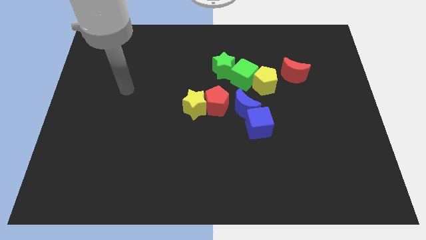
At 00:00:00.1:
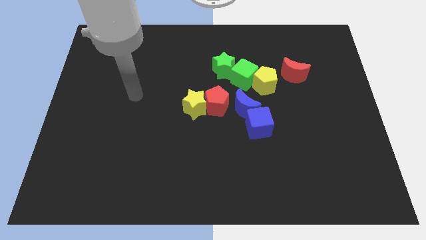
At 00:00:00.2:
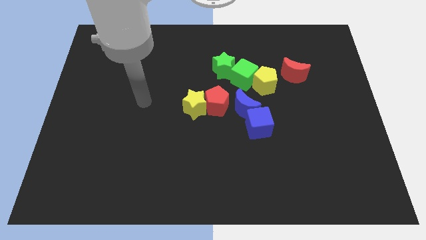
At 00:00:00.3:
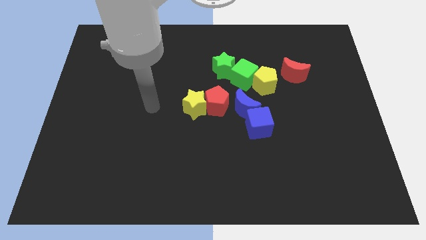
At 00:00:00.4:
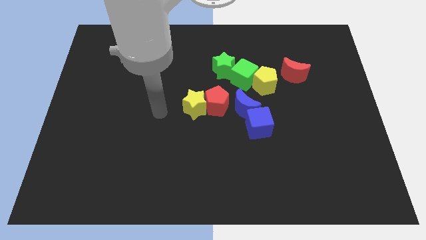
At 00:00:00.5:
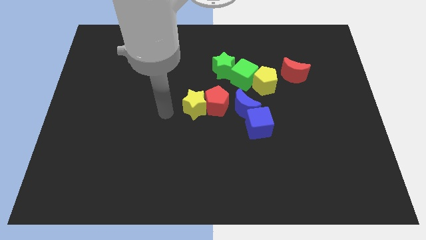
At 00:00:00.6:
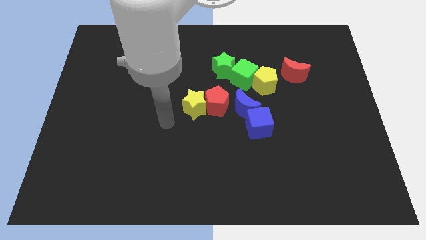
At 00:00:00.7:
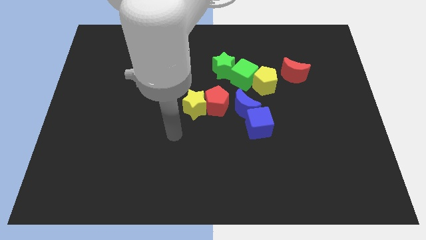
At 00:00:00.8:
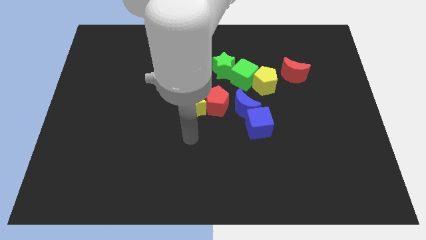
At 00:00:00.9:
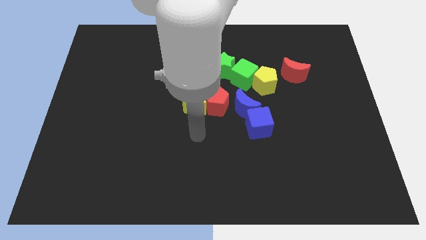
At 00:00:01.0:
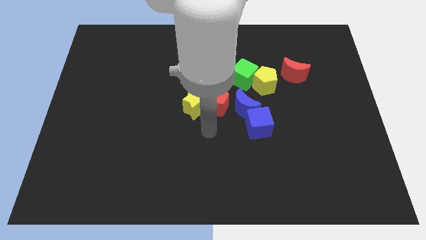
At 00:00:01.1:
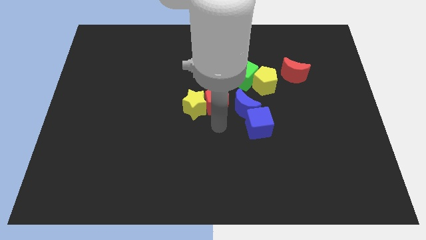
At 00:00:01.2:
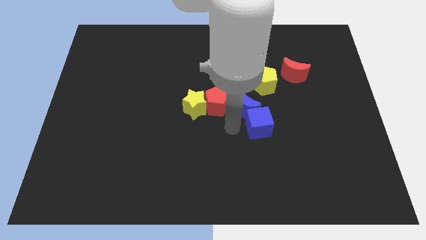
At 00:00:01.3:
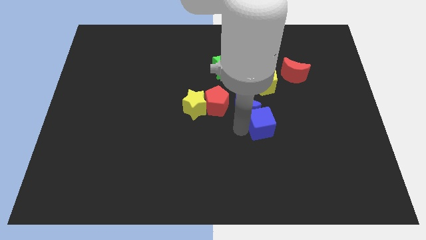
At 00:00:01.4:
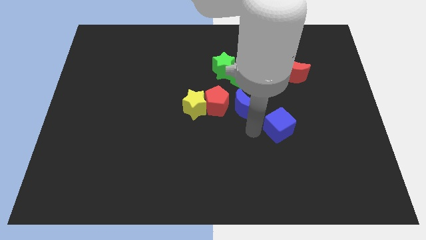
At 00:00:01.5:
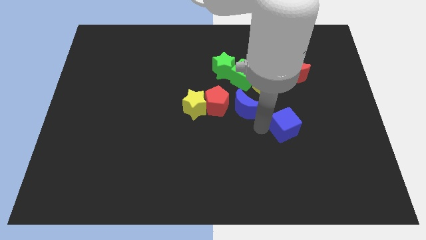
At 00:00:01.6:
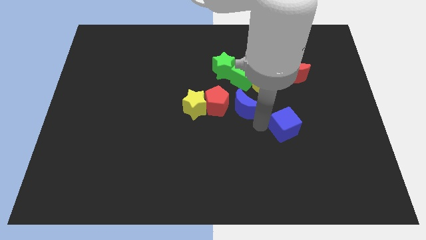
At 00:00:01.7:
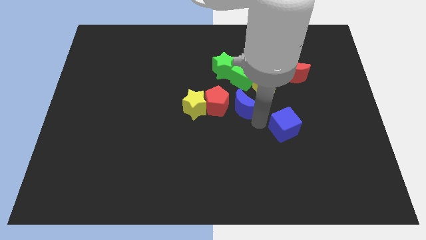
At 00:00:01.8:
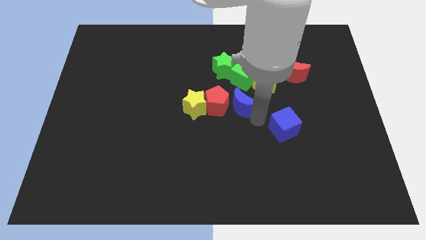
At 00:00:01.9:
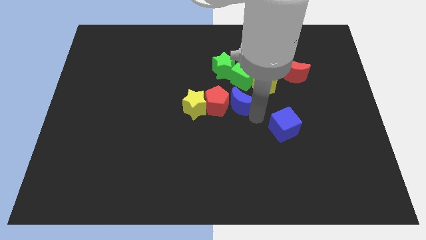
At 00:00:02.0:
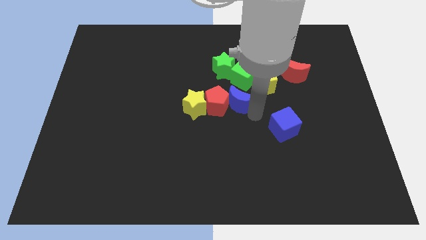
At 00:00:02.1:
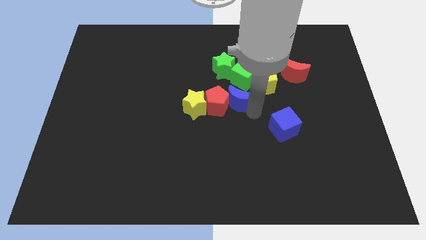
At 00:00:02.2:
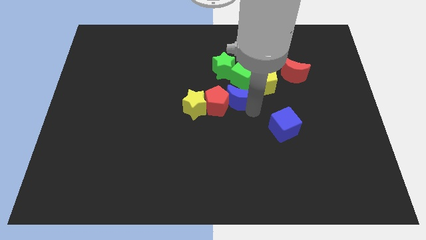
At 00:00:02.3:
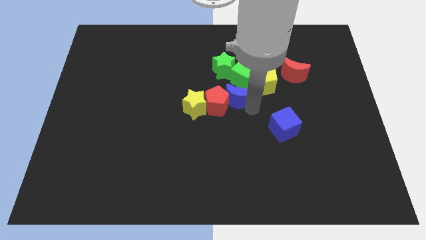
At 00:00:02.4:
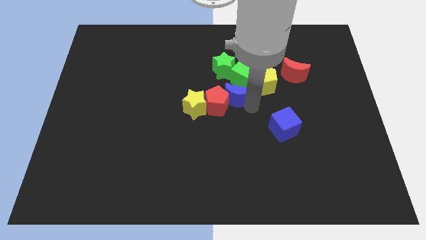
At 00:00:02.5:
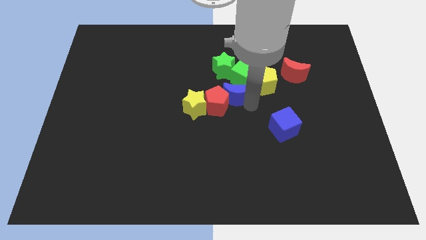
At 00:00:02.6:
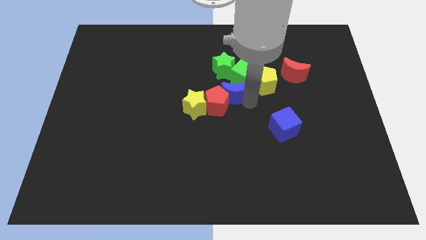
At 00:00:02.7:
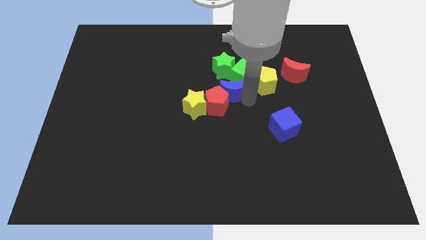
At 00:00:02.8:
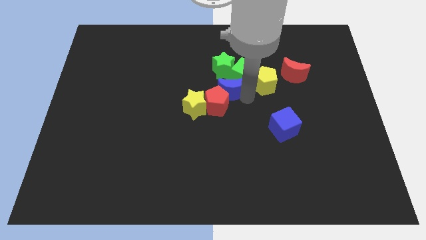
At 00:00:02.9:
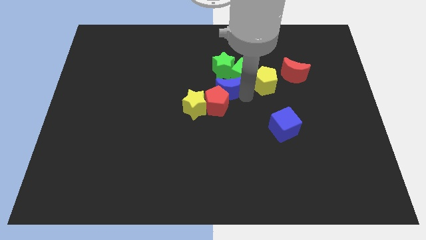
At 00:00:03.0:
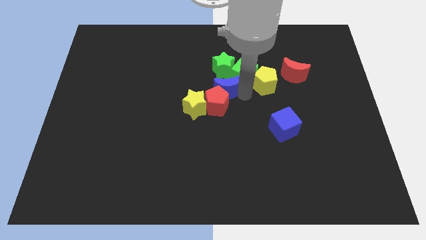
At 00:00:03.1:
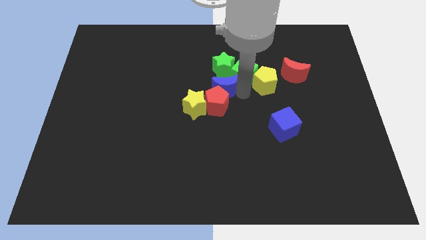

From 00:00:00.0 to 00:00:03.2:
slightly slide the blue moon up and then to the left

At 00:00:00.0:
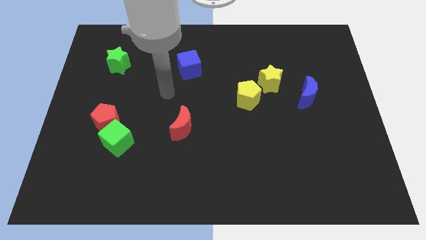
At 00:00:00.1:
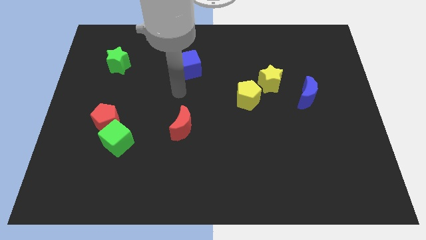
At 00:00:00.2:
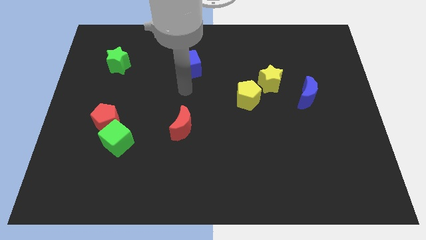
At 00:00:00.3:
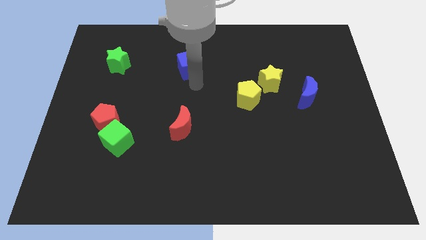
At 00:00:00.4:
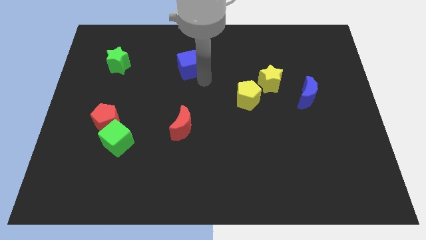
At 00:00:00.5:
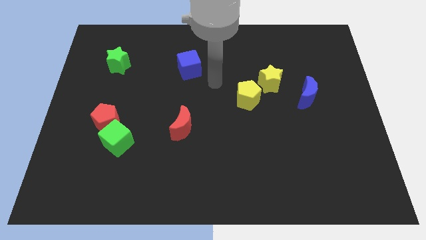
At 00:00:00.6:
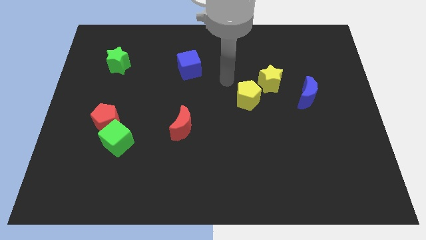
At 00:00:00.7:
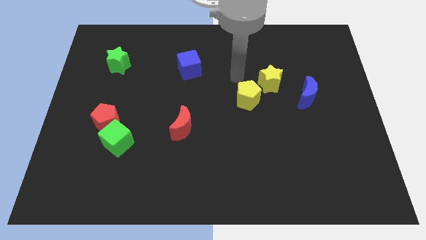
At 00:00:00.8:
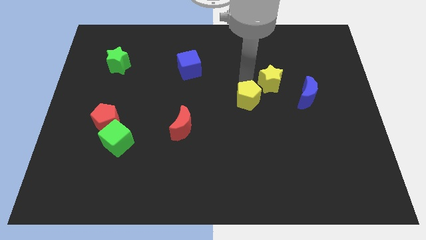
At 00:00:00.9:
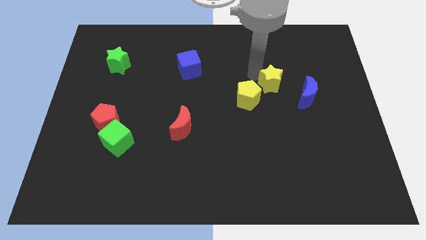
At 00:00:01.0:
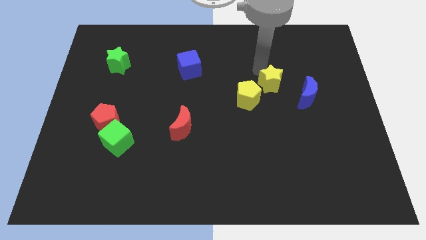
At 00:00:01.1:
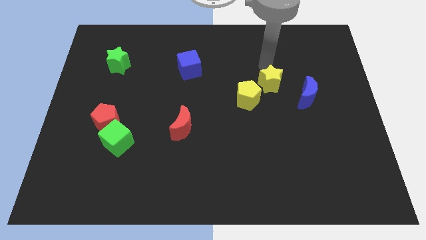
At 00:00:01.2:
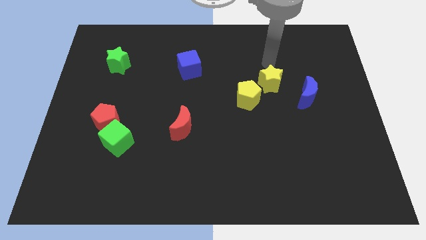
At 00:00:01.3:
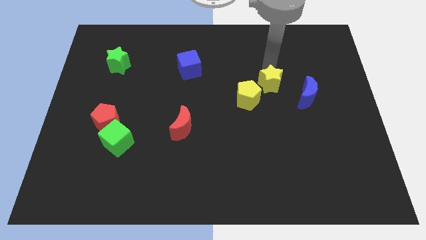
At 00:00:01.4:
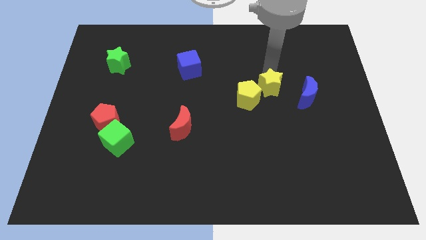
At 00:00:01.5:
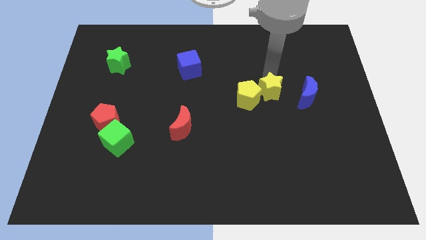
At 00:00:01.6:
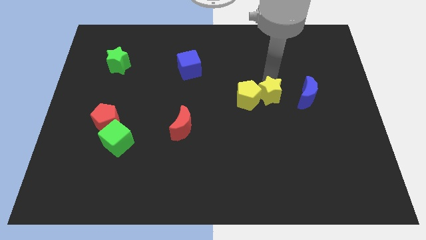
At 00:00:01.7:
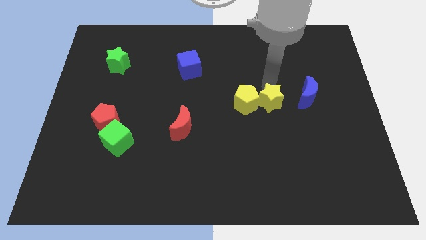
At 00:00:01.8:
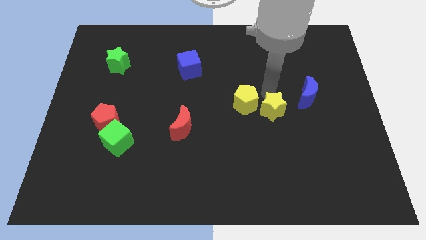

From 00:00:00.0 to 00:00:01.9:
slightly slide the yellow star down

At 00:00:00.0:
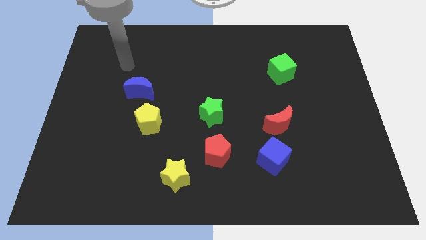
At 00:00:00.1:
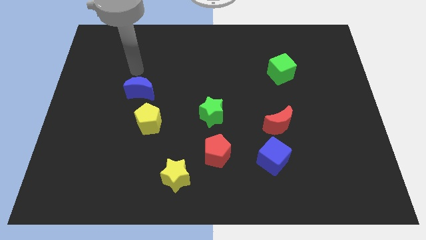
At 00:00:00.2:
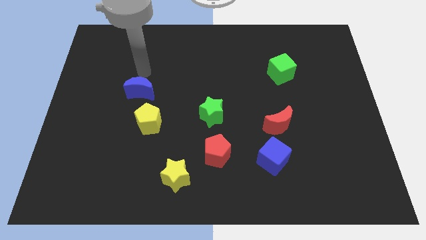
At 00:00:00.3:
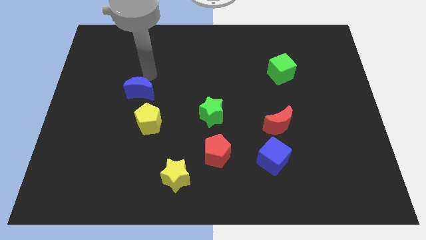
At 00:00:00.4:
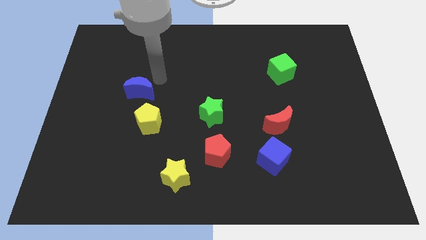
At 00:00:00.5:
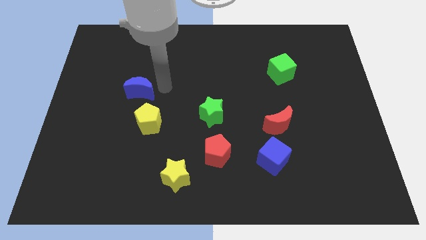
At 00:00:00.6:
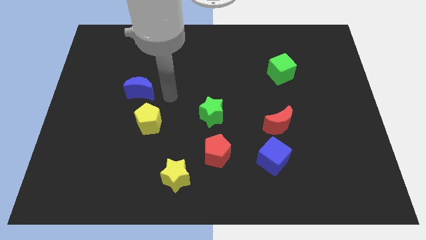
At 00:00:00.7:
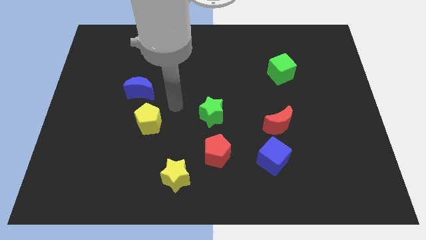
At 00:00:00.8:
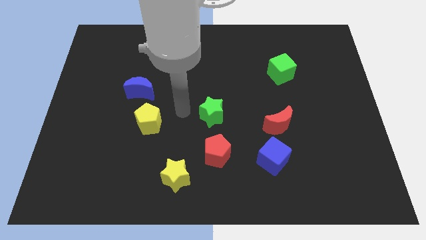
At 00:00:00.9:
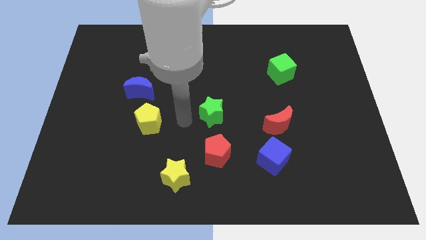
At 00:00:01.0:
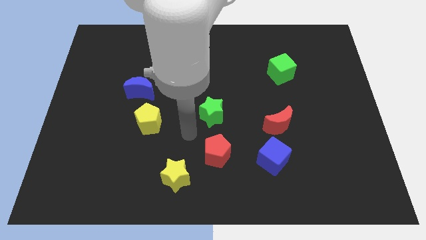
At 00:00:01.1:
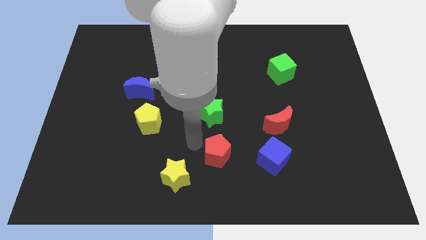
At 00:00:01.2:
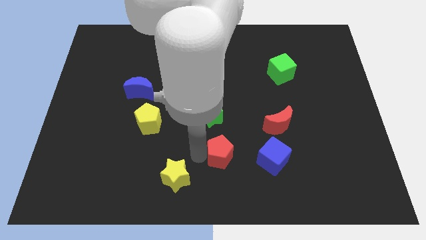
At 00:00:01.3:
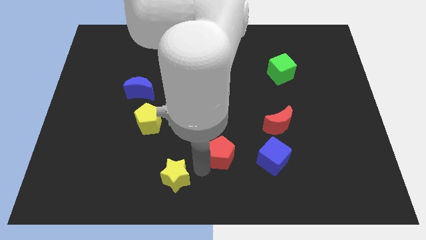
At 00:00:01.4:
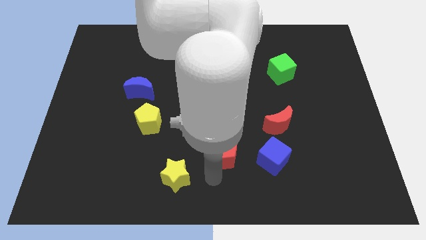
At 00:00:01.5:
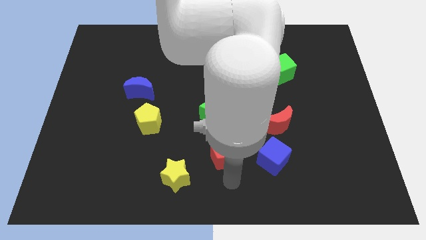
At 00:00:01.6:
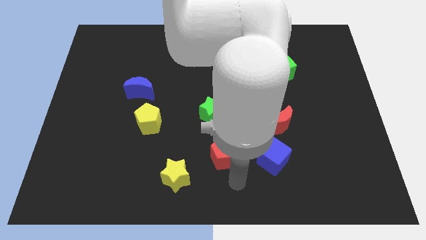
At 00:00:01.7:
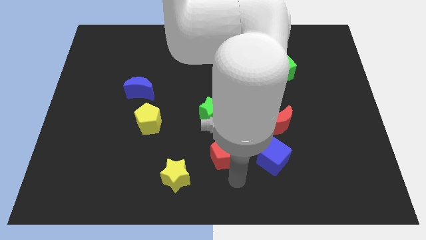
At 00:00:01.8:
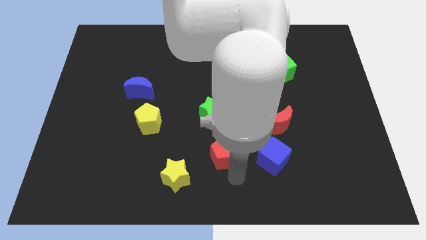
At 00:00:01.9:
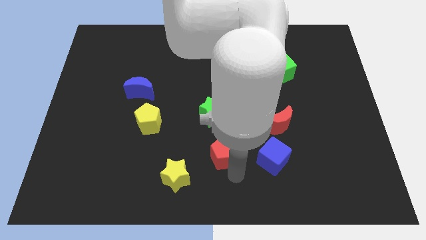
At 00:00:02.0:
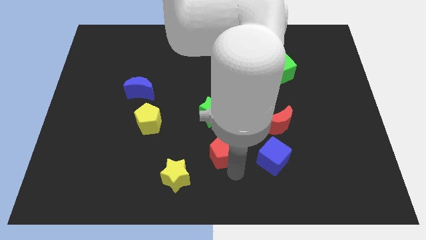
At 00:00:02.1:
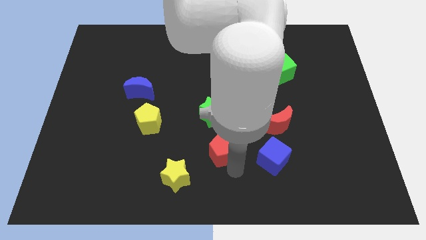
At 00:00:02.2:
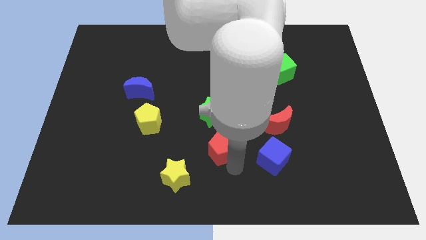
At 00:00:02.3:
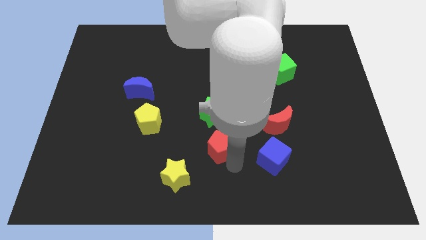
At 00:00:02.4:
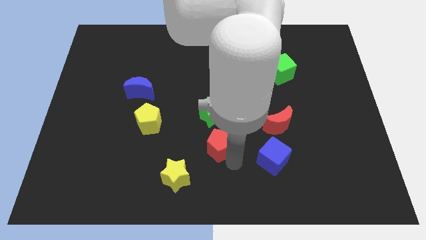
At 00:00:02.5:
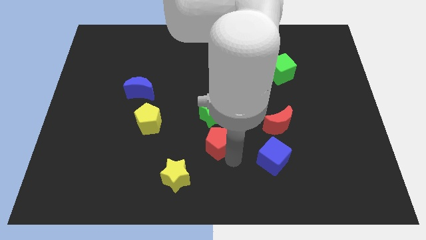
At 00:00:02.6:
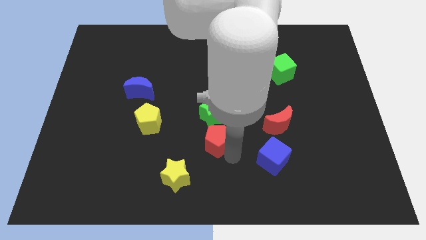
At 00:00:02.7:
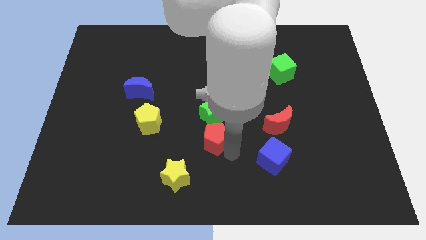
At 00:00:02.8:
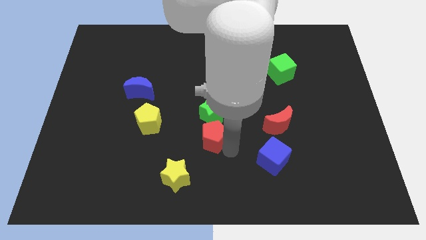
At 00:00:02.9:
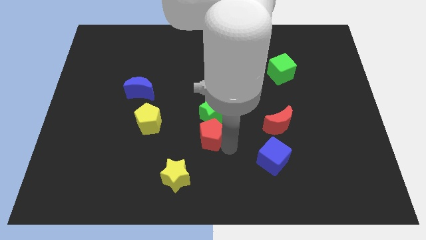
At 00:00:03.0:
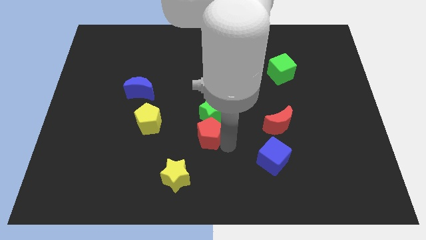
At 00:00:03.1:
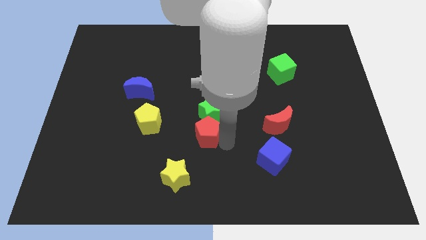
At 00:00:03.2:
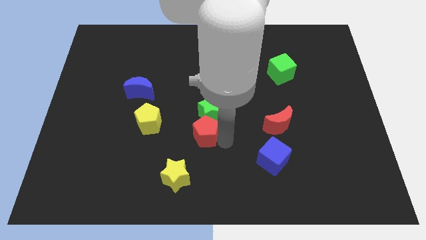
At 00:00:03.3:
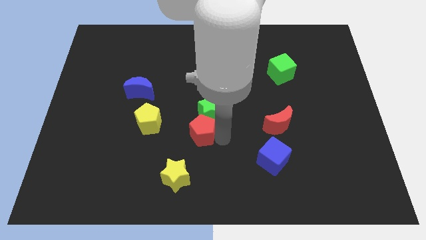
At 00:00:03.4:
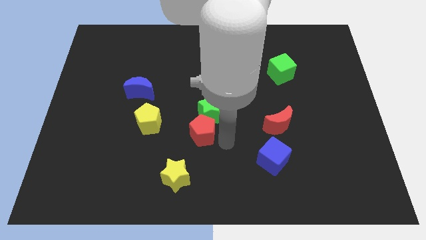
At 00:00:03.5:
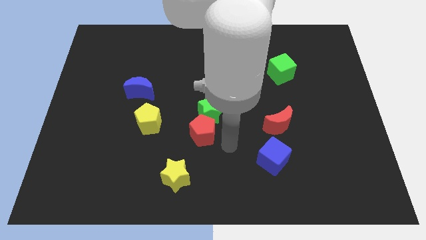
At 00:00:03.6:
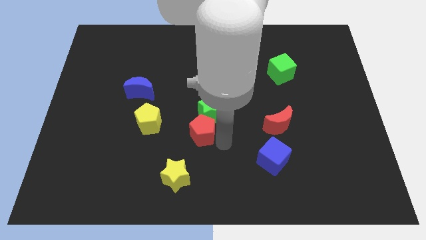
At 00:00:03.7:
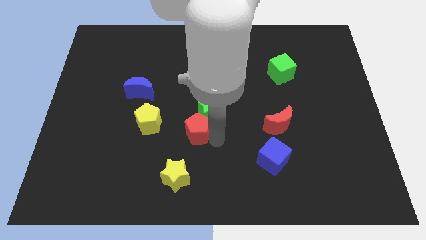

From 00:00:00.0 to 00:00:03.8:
slide the red pentagon diagonally up and left somewhat
